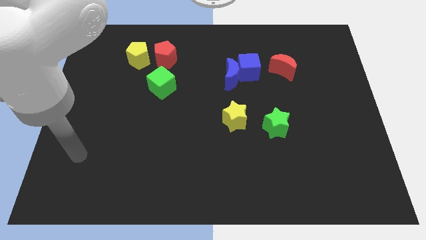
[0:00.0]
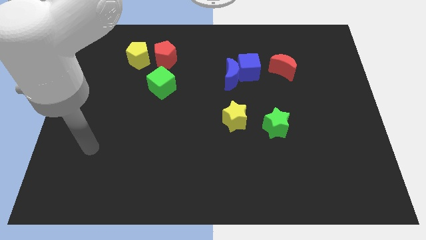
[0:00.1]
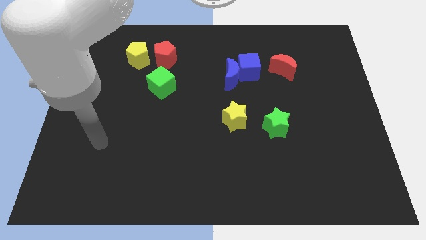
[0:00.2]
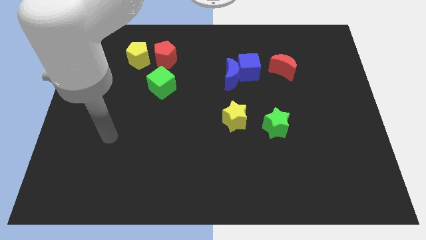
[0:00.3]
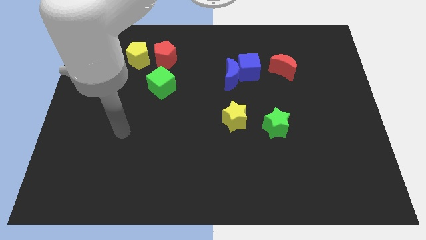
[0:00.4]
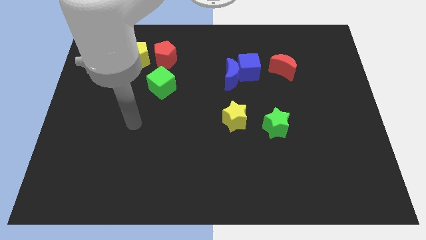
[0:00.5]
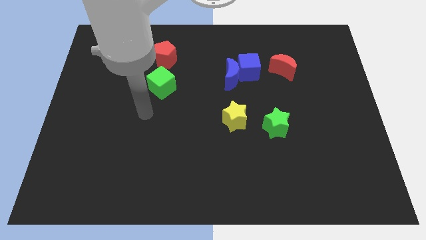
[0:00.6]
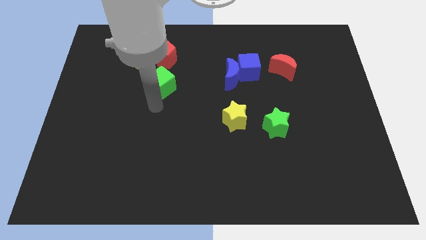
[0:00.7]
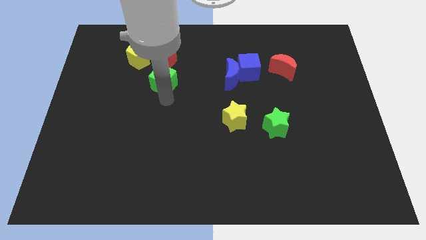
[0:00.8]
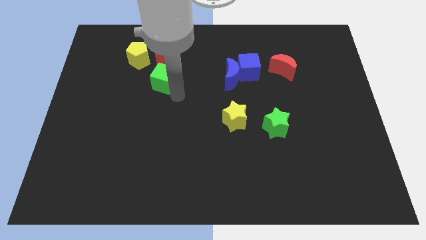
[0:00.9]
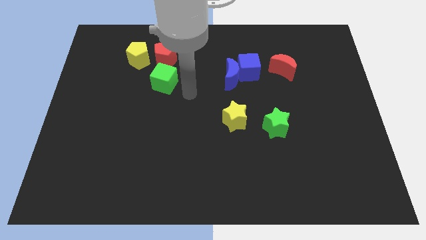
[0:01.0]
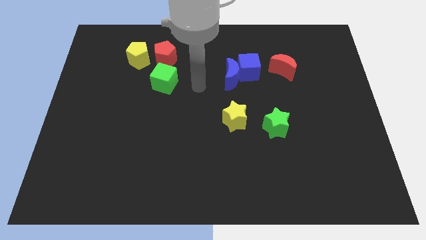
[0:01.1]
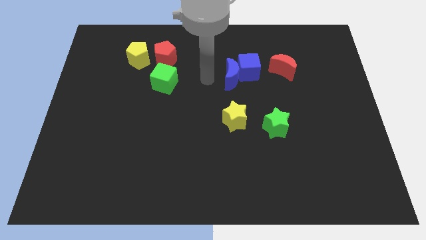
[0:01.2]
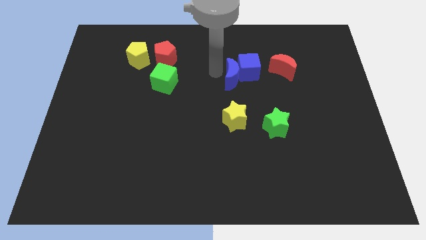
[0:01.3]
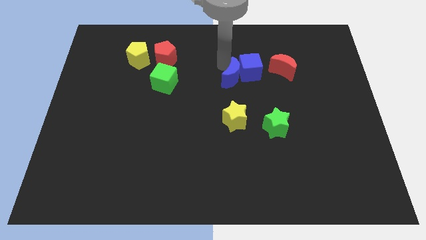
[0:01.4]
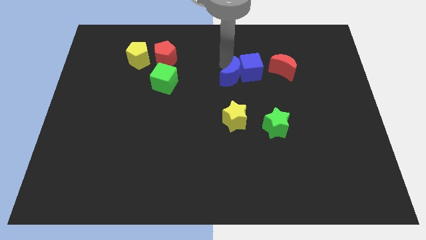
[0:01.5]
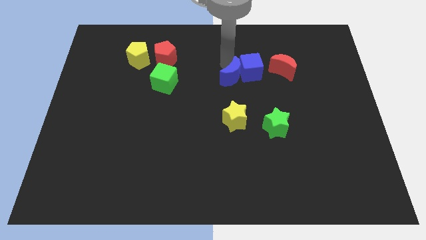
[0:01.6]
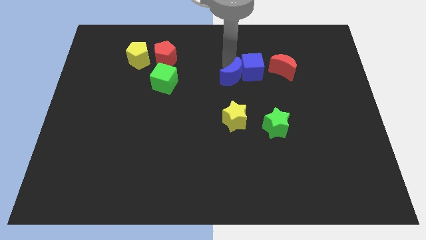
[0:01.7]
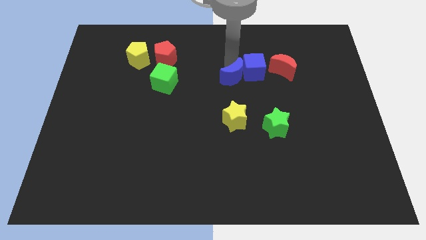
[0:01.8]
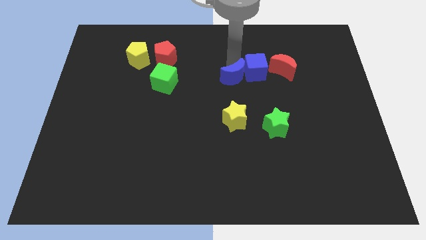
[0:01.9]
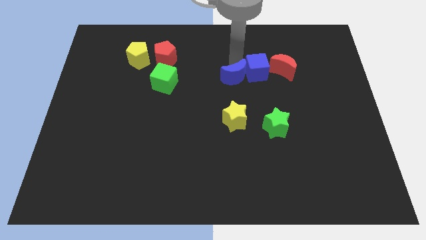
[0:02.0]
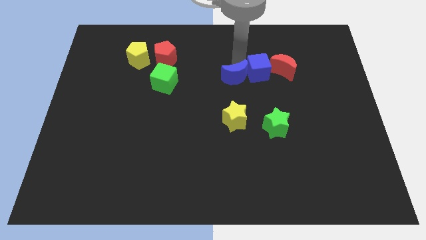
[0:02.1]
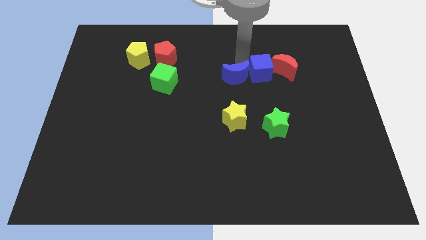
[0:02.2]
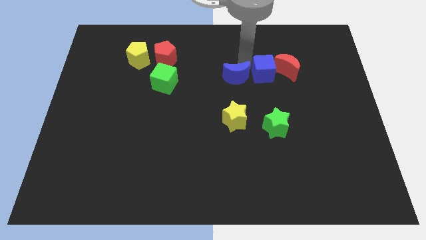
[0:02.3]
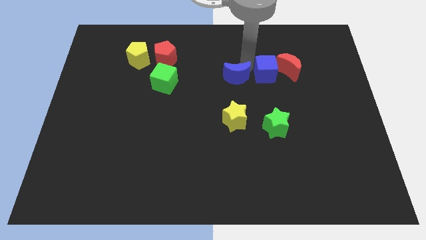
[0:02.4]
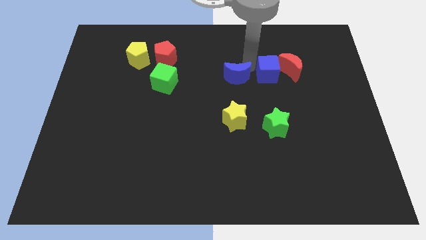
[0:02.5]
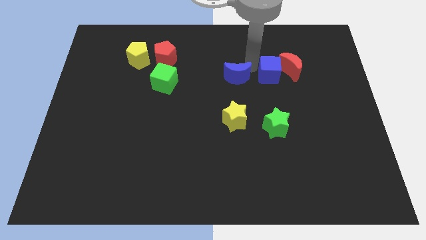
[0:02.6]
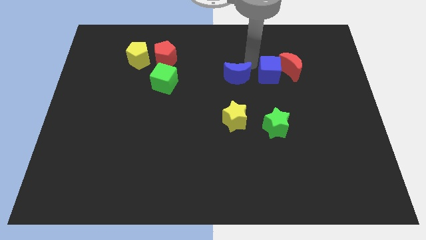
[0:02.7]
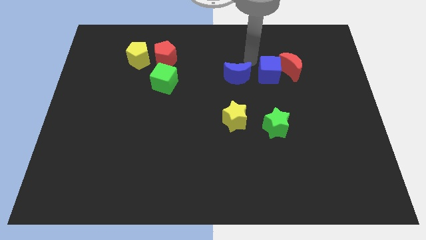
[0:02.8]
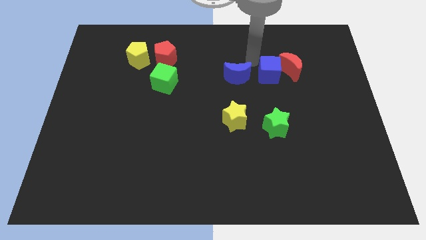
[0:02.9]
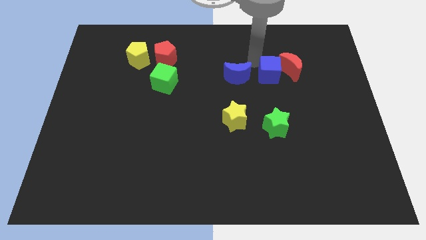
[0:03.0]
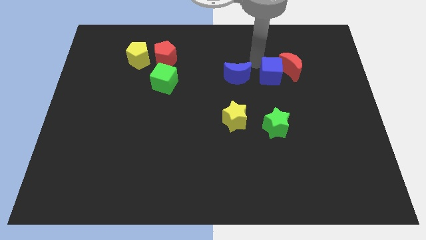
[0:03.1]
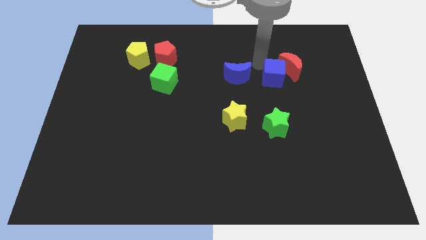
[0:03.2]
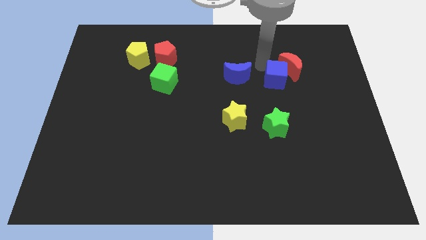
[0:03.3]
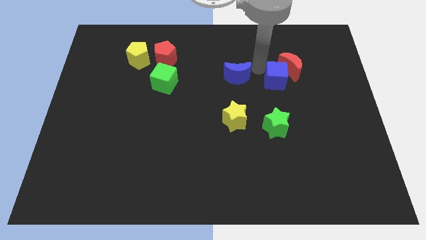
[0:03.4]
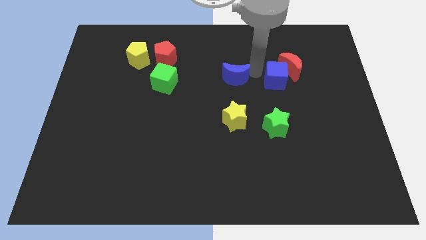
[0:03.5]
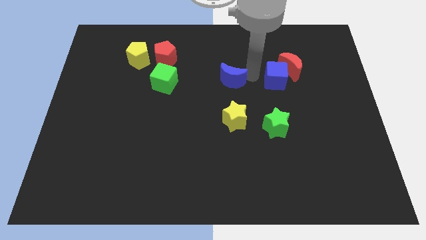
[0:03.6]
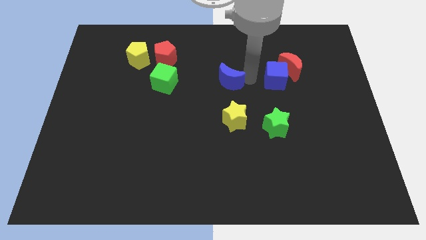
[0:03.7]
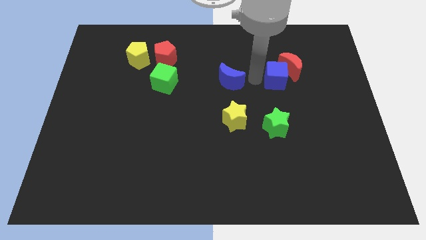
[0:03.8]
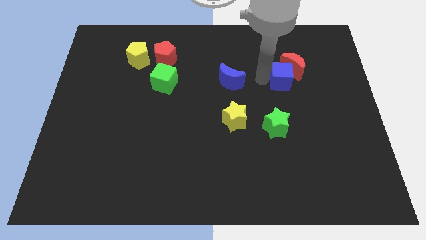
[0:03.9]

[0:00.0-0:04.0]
move the blue cube a bit right

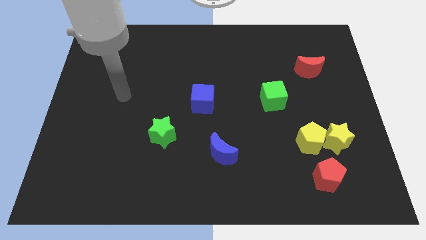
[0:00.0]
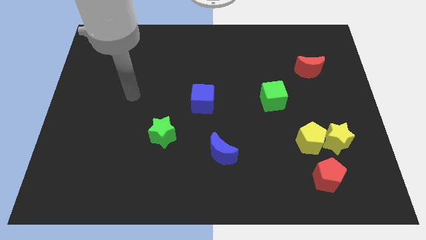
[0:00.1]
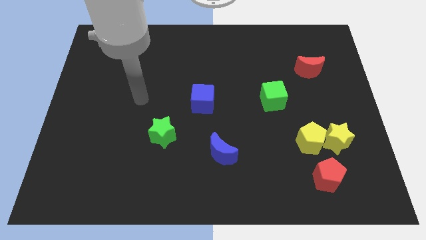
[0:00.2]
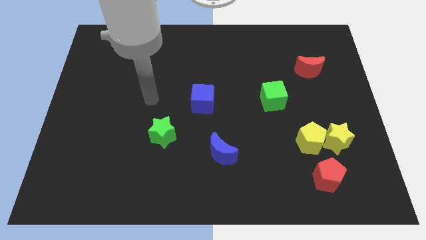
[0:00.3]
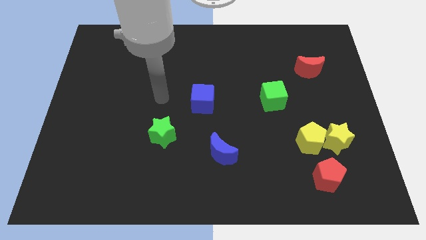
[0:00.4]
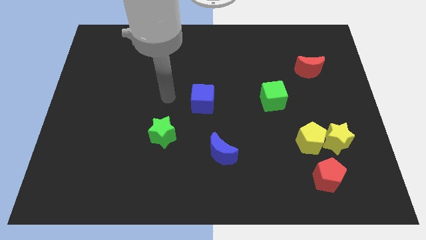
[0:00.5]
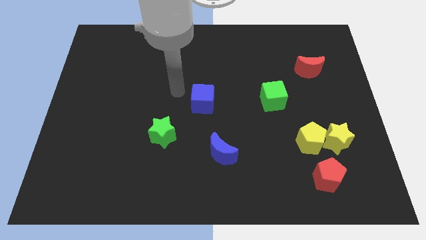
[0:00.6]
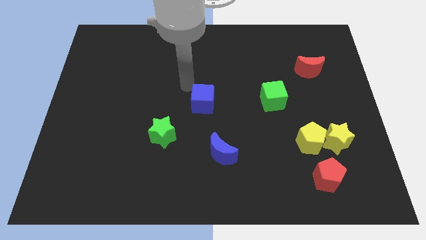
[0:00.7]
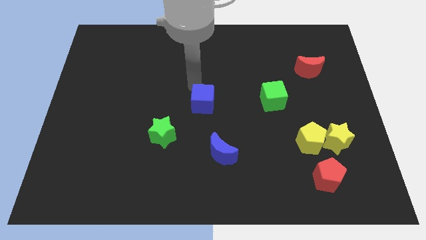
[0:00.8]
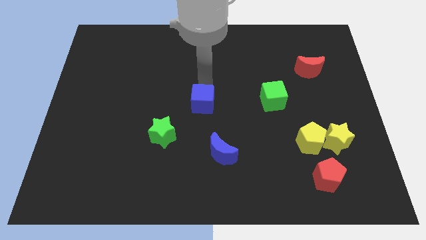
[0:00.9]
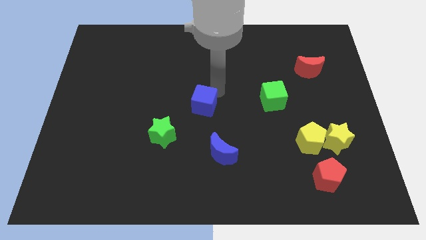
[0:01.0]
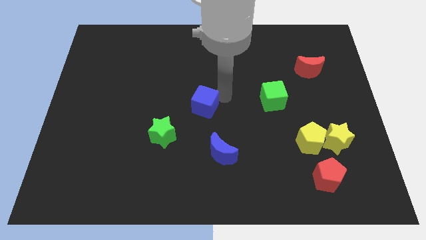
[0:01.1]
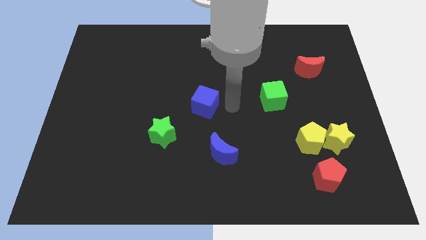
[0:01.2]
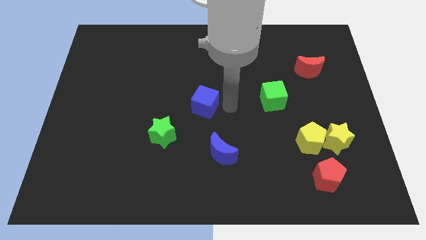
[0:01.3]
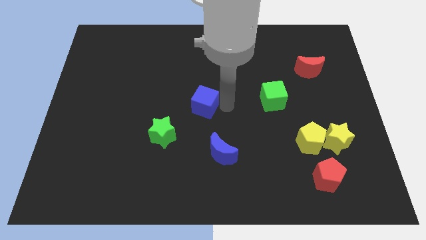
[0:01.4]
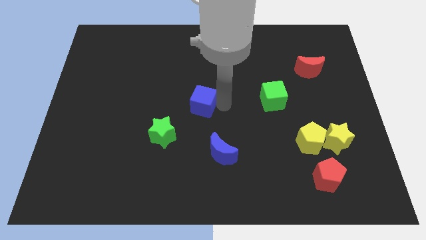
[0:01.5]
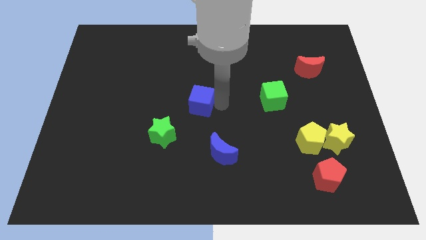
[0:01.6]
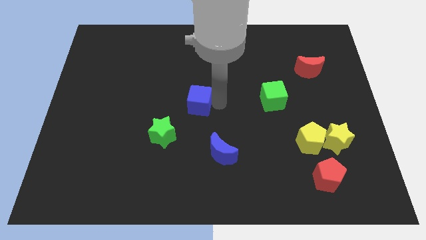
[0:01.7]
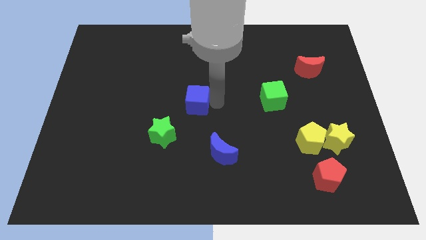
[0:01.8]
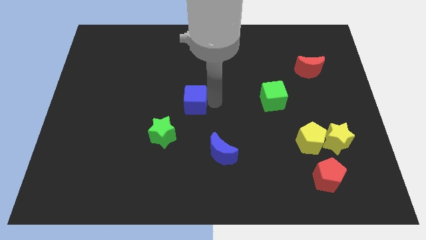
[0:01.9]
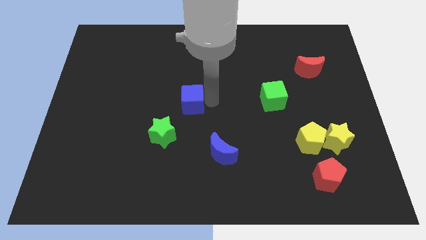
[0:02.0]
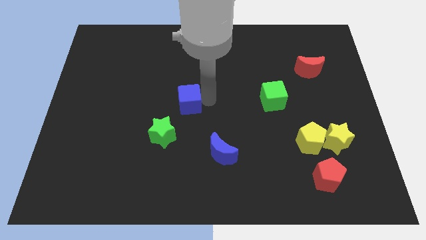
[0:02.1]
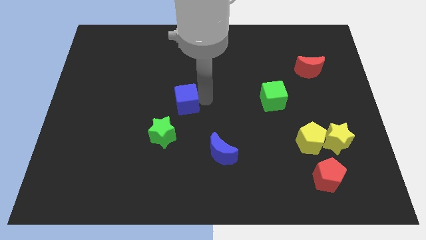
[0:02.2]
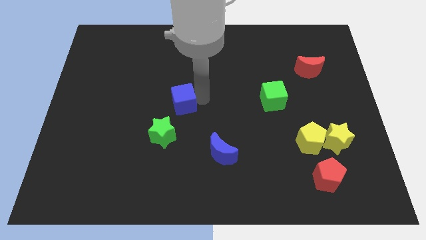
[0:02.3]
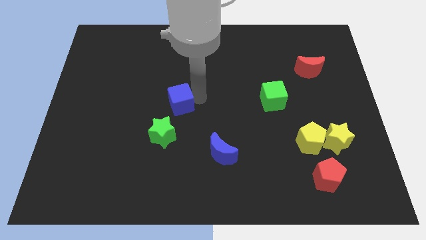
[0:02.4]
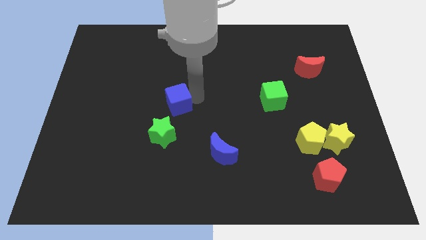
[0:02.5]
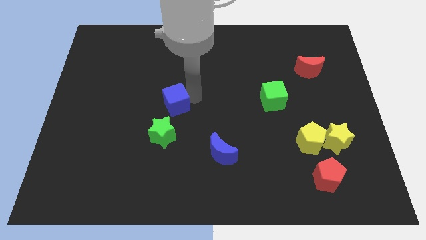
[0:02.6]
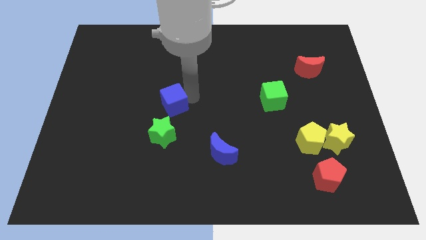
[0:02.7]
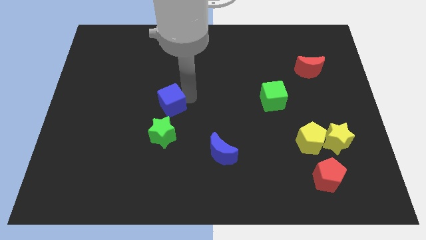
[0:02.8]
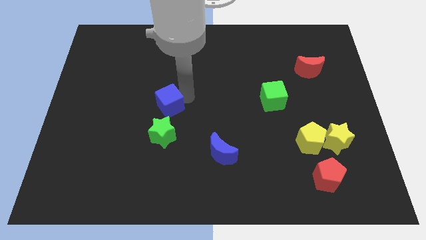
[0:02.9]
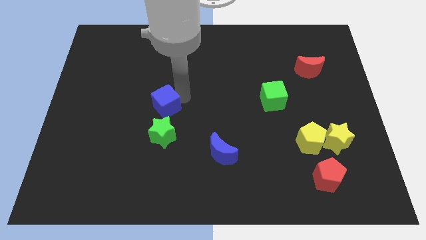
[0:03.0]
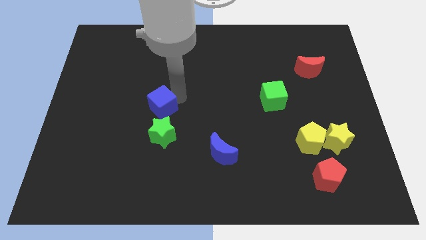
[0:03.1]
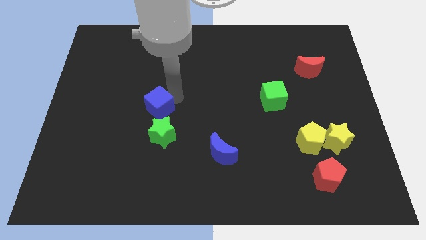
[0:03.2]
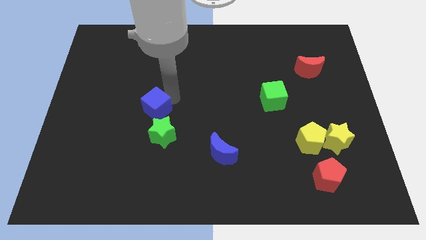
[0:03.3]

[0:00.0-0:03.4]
push the blue cube diagonally downwards and left a little bit

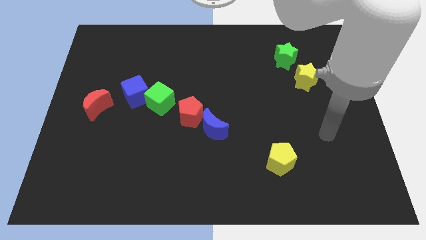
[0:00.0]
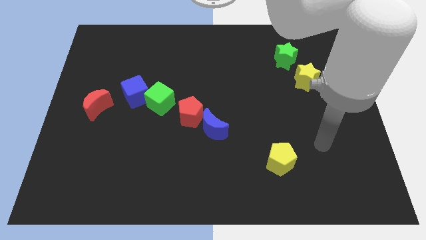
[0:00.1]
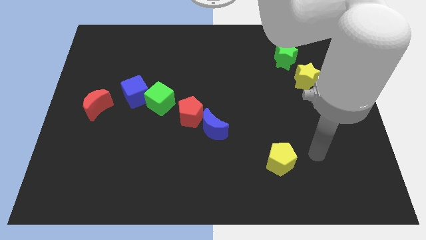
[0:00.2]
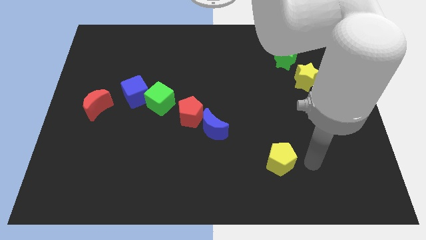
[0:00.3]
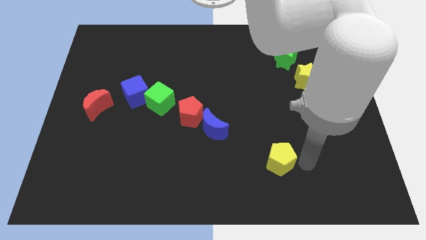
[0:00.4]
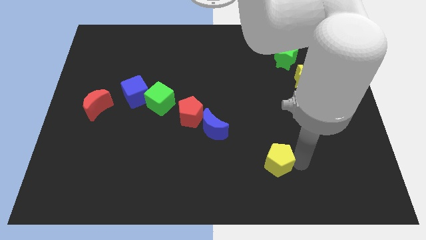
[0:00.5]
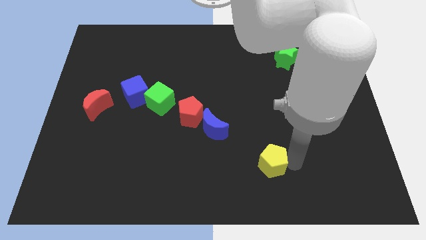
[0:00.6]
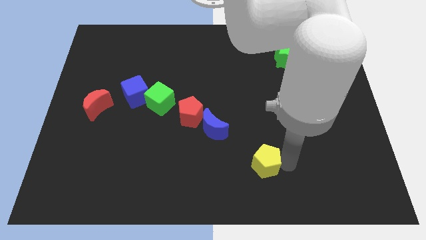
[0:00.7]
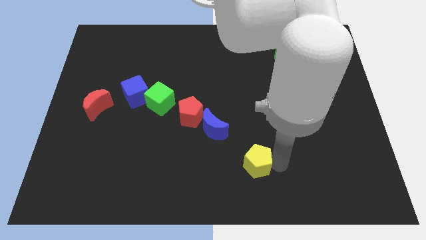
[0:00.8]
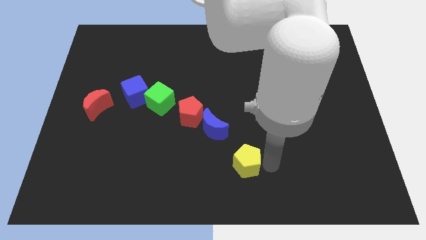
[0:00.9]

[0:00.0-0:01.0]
slightly move the yellow pentagon left
